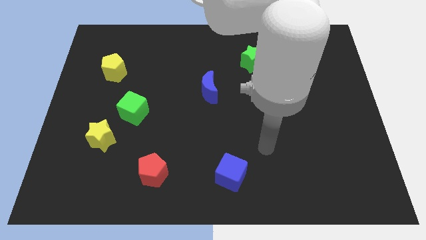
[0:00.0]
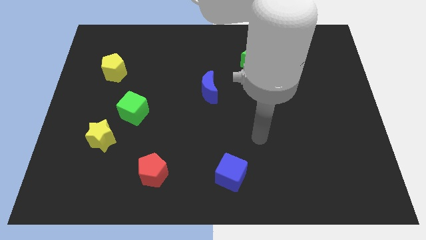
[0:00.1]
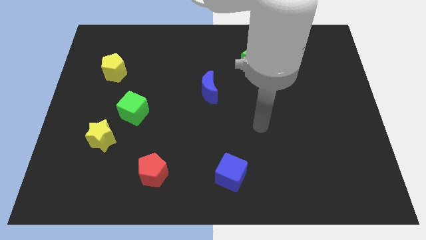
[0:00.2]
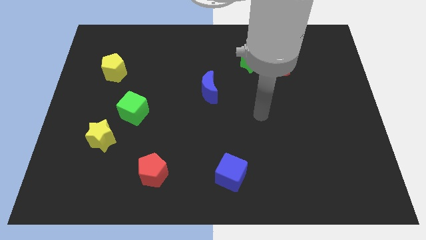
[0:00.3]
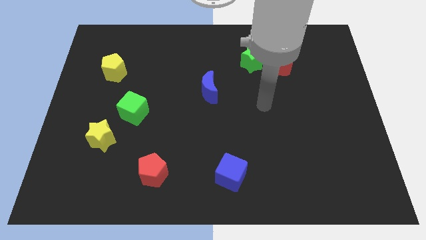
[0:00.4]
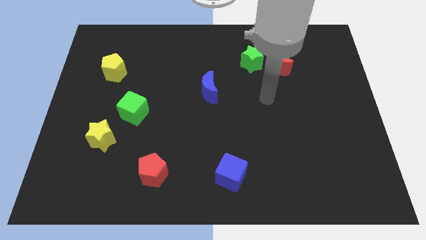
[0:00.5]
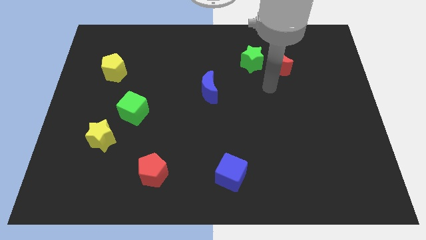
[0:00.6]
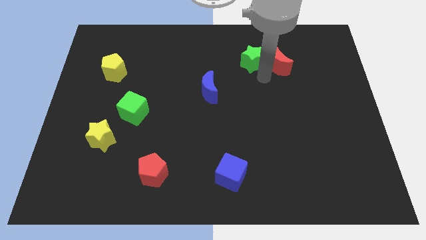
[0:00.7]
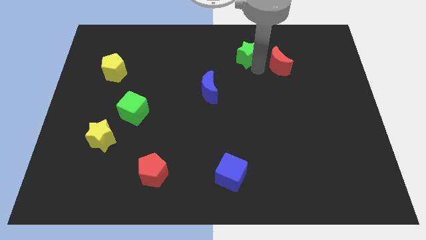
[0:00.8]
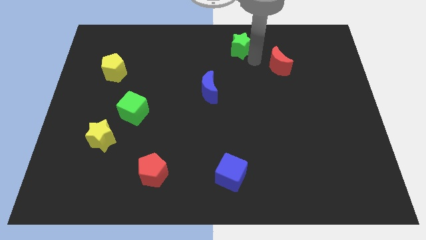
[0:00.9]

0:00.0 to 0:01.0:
separate the red moon from the green star

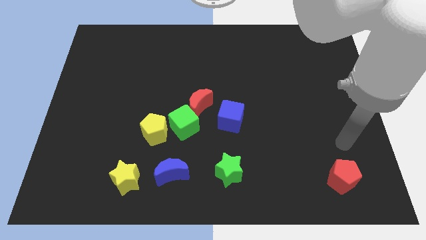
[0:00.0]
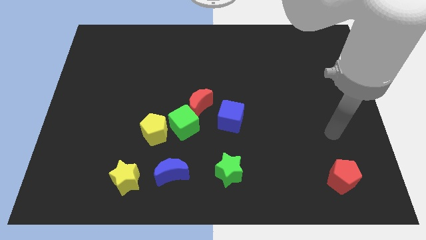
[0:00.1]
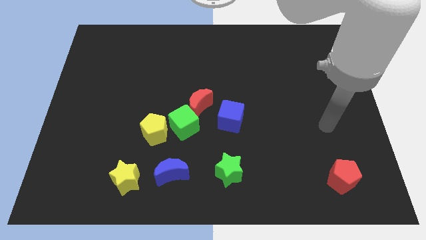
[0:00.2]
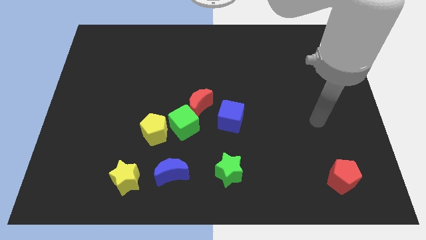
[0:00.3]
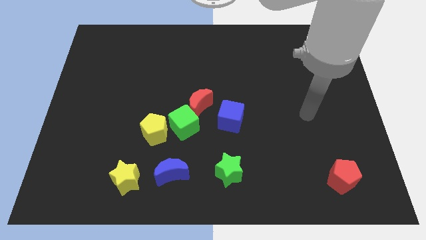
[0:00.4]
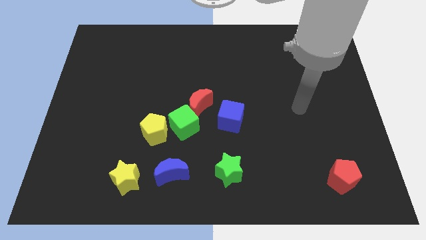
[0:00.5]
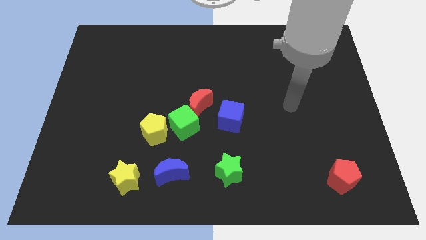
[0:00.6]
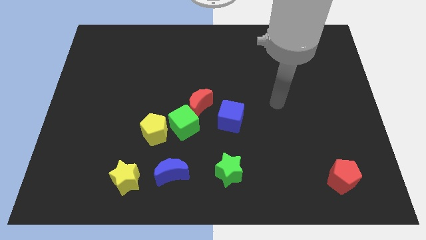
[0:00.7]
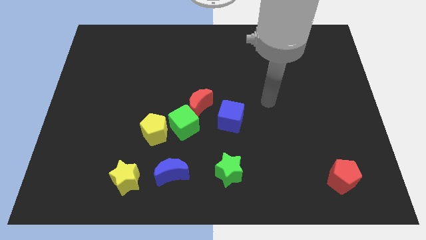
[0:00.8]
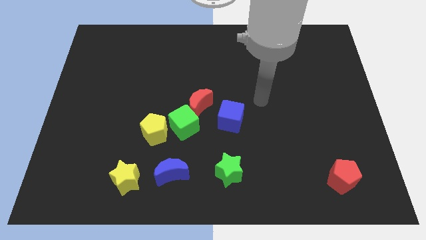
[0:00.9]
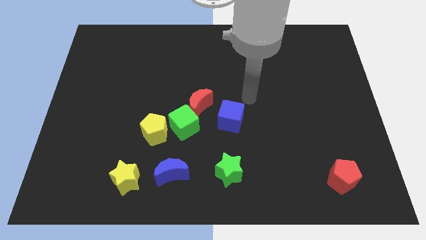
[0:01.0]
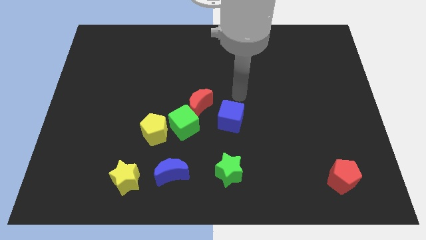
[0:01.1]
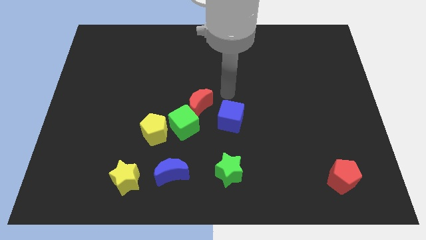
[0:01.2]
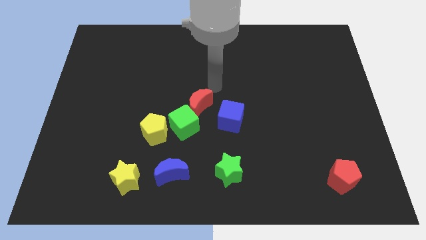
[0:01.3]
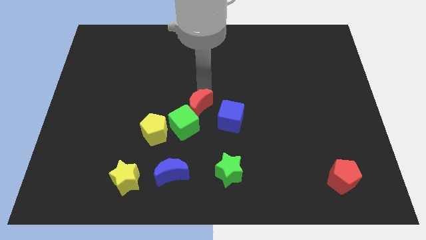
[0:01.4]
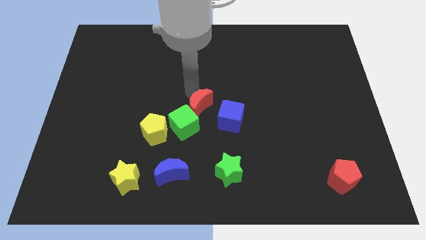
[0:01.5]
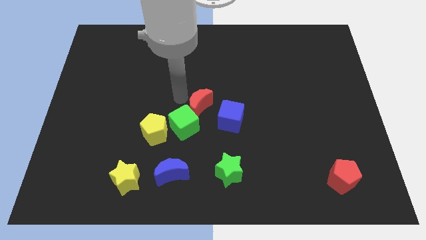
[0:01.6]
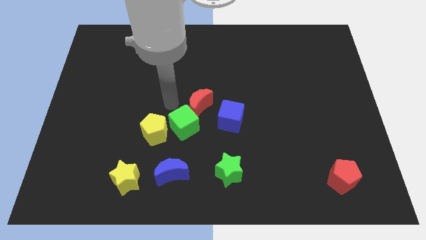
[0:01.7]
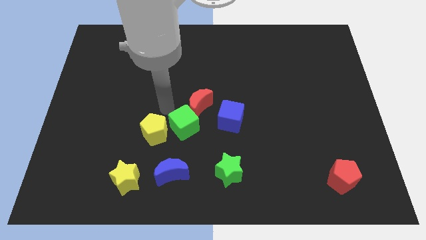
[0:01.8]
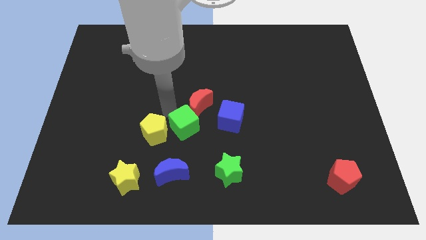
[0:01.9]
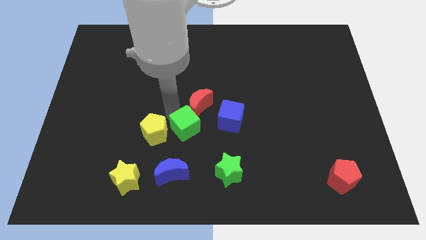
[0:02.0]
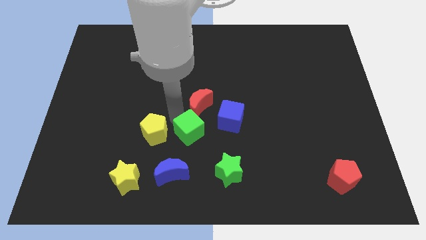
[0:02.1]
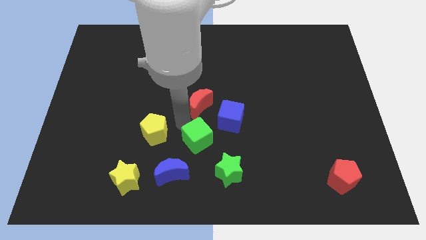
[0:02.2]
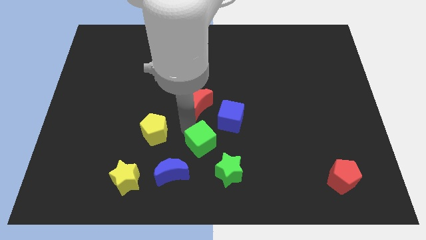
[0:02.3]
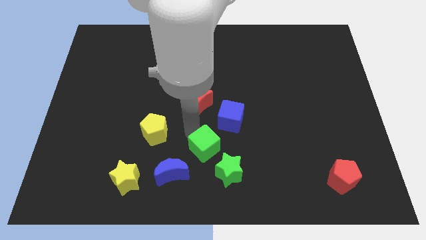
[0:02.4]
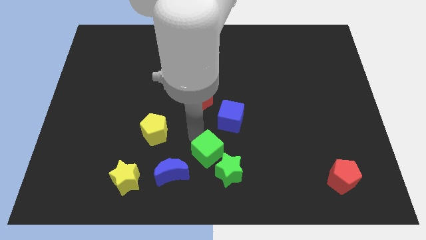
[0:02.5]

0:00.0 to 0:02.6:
separate the green cube from the red moon and yellow pentagon

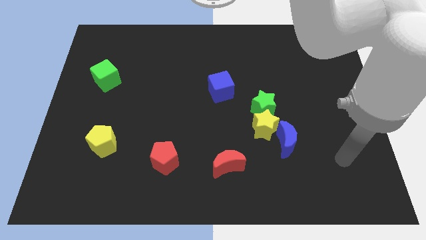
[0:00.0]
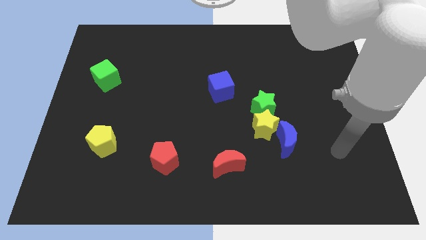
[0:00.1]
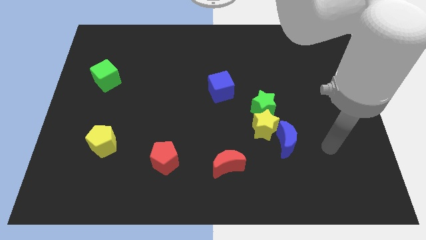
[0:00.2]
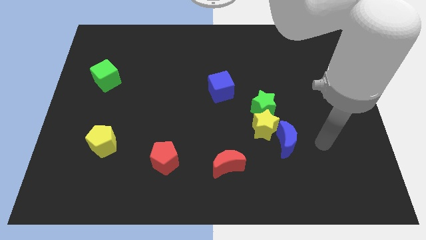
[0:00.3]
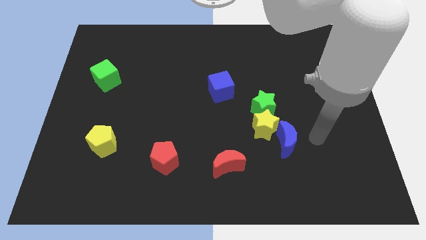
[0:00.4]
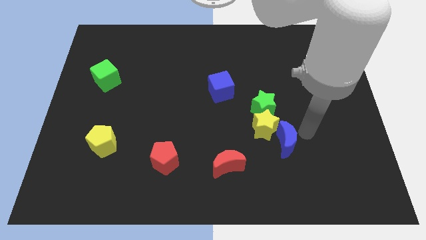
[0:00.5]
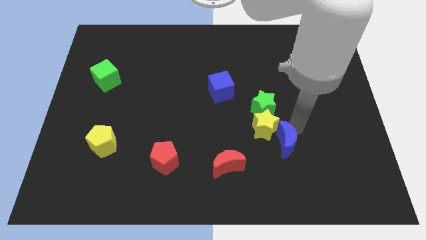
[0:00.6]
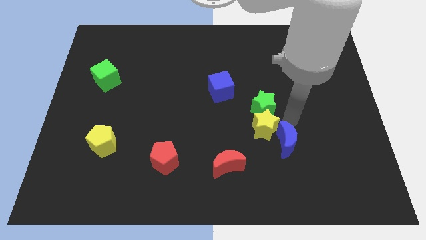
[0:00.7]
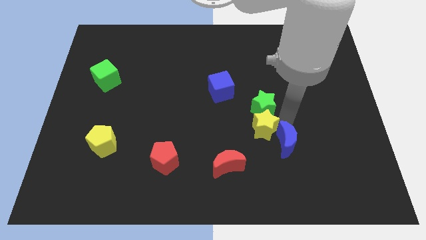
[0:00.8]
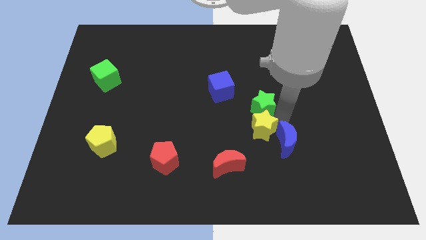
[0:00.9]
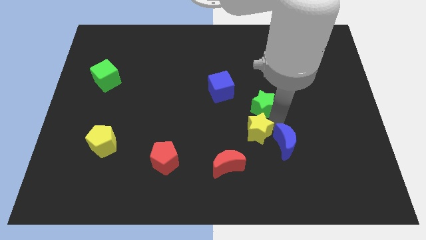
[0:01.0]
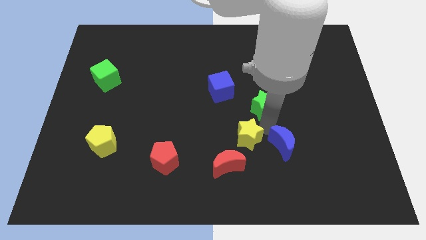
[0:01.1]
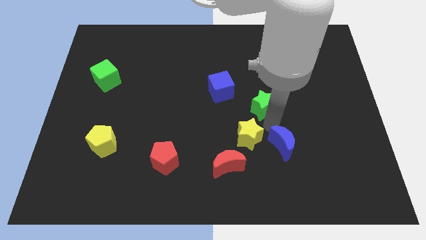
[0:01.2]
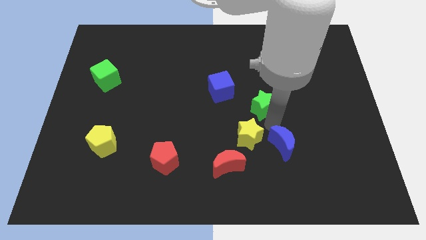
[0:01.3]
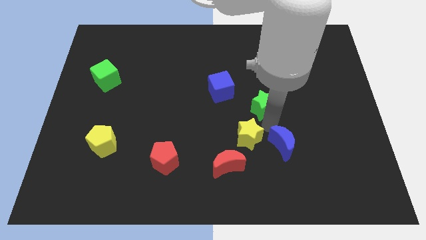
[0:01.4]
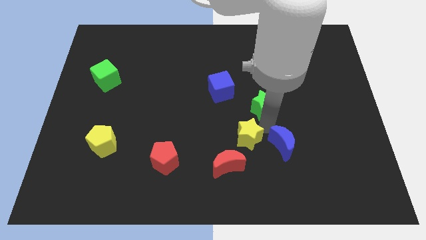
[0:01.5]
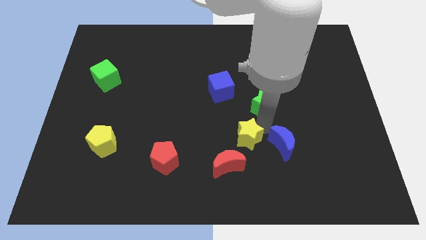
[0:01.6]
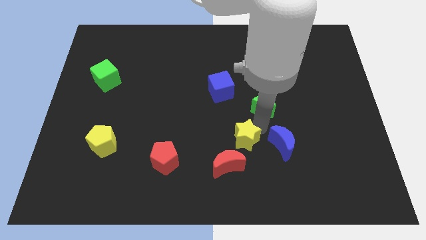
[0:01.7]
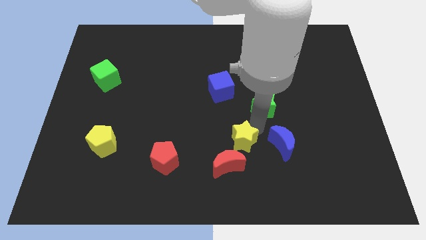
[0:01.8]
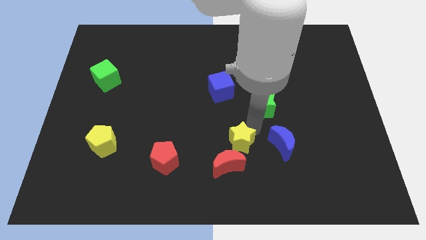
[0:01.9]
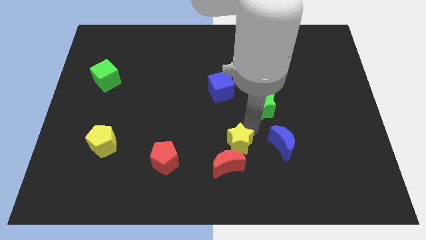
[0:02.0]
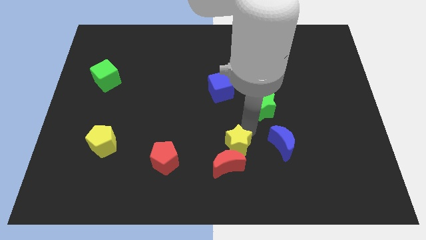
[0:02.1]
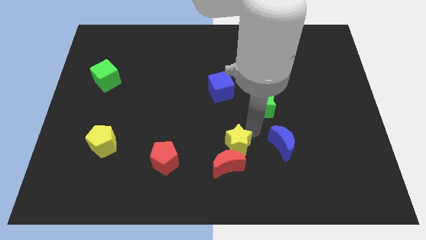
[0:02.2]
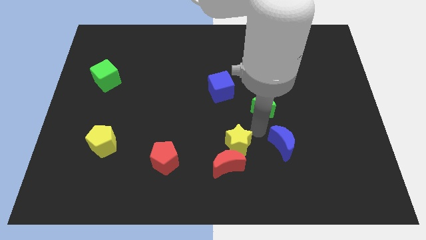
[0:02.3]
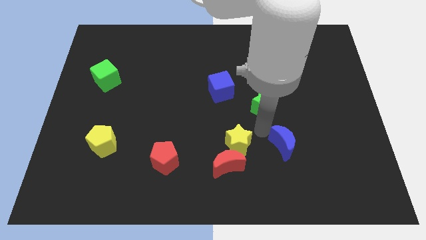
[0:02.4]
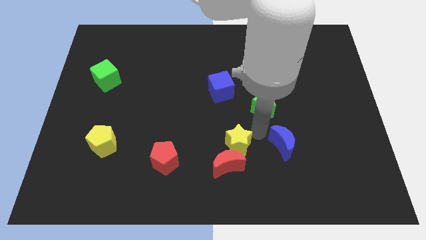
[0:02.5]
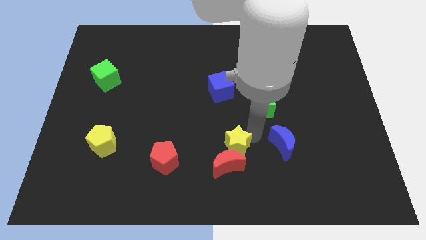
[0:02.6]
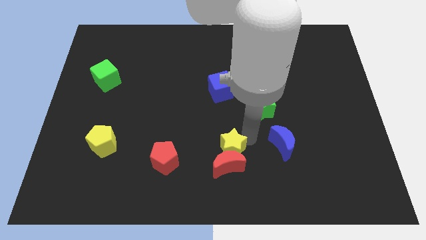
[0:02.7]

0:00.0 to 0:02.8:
move the yellow star away from the blue moon and green star

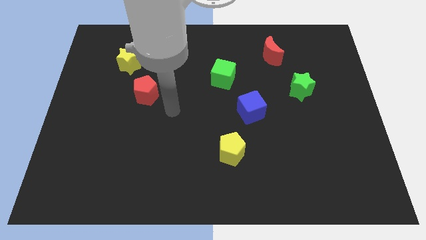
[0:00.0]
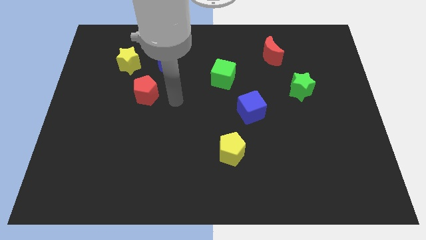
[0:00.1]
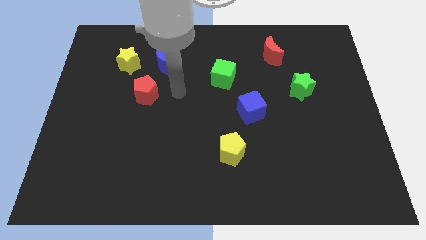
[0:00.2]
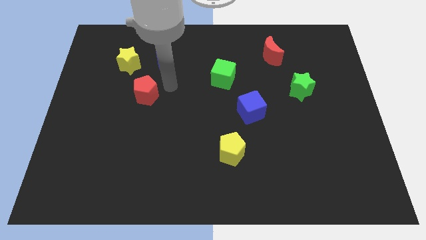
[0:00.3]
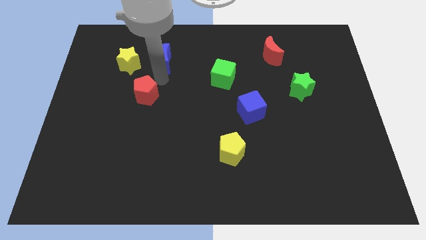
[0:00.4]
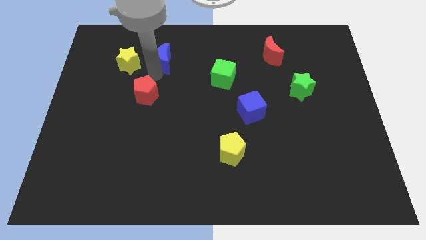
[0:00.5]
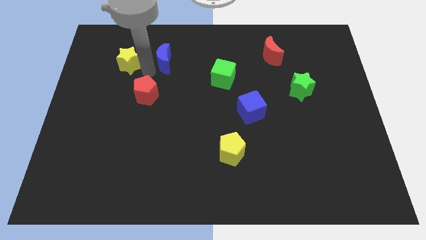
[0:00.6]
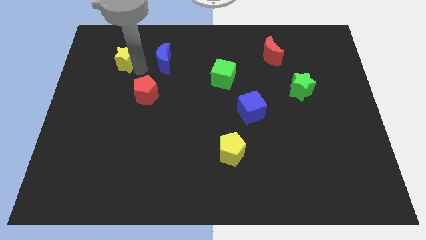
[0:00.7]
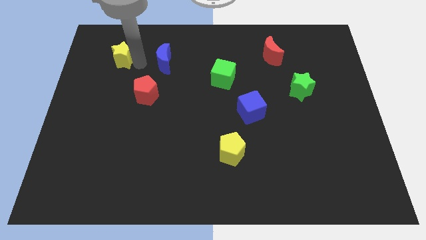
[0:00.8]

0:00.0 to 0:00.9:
move the blue moon away from the yellow star

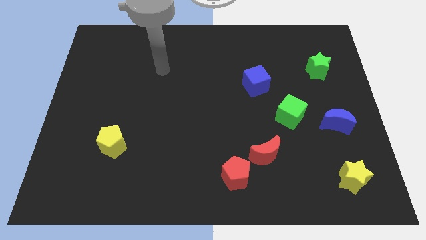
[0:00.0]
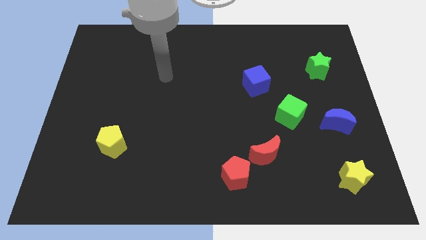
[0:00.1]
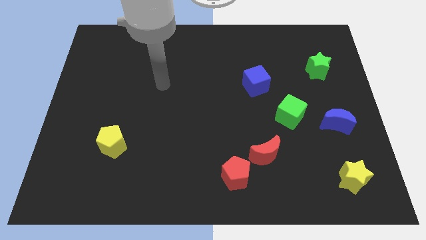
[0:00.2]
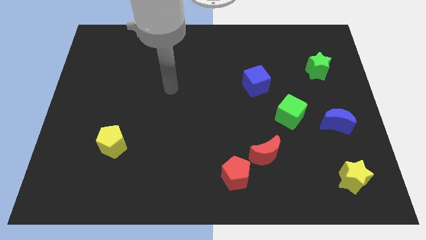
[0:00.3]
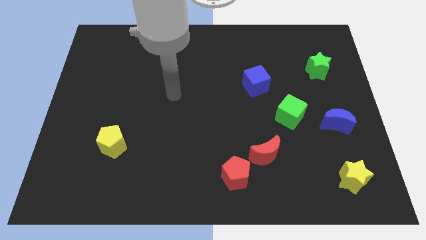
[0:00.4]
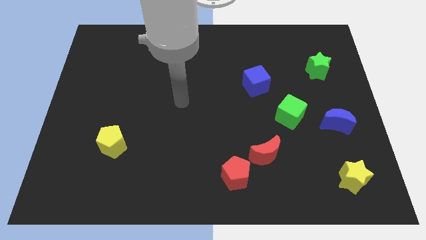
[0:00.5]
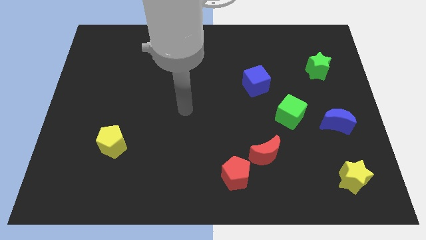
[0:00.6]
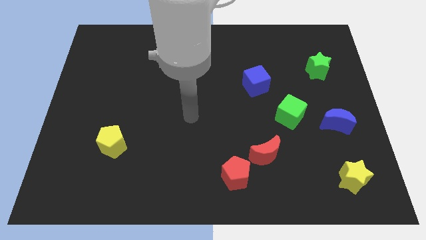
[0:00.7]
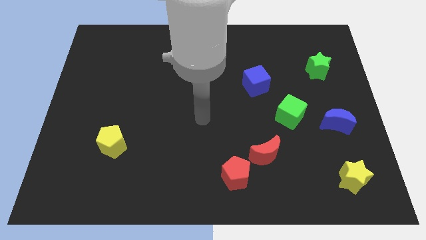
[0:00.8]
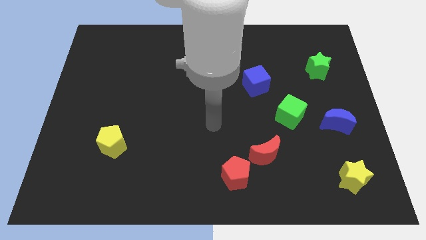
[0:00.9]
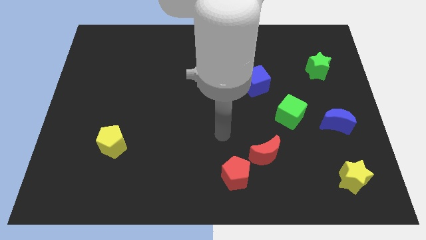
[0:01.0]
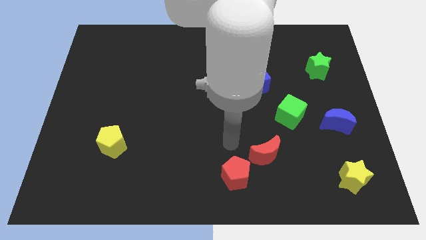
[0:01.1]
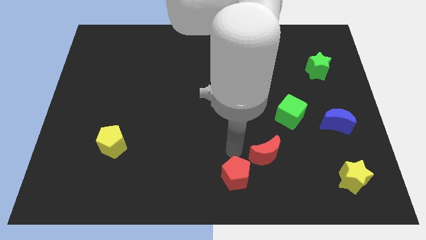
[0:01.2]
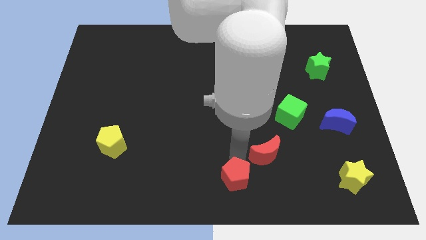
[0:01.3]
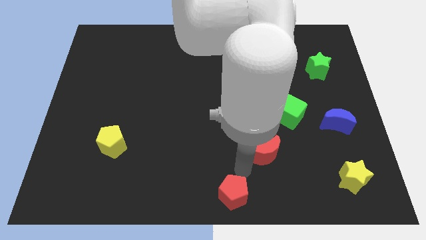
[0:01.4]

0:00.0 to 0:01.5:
separate the red moon from the red pentagon

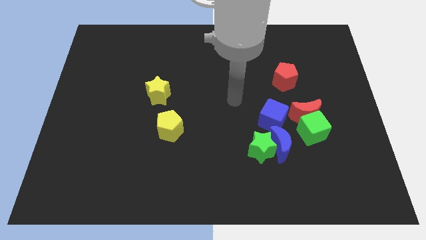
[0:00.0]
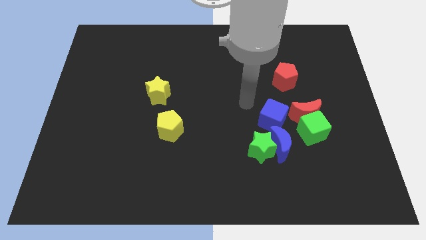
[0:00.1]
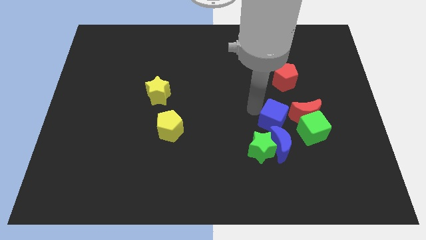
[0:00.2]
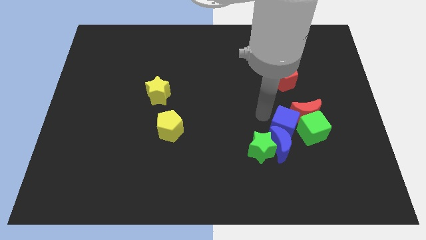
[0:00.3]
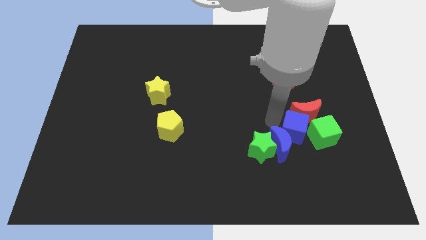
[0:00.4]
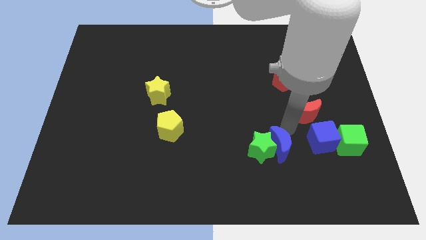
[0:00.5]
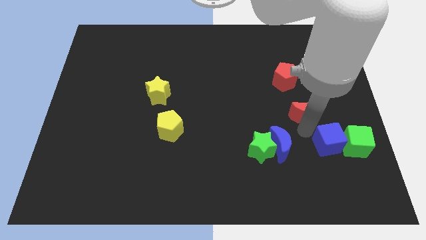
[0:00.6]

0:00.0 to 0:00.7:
move the red moon away from the green cube and blue cube
